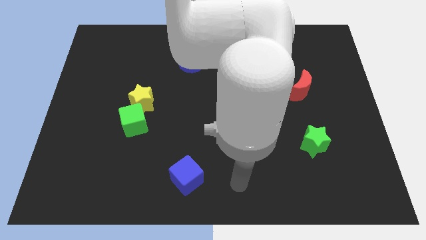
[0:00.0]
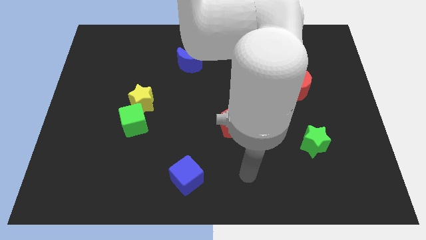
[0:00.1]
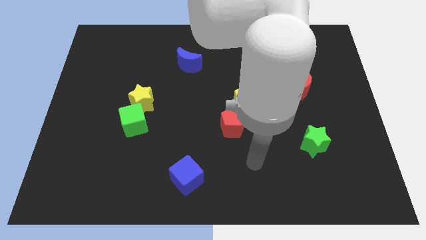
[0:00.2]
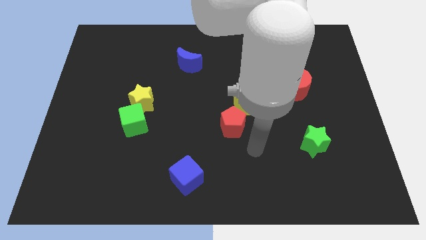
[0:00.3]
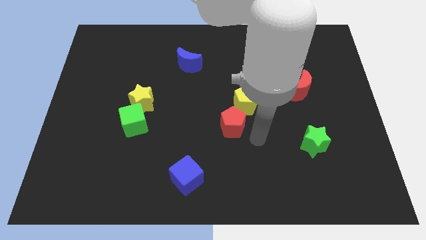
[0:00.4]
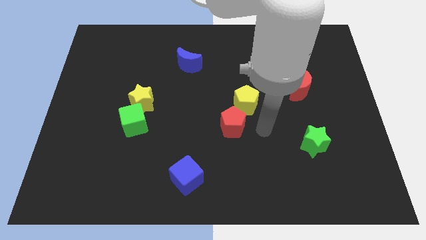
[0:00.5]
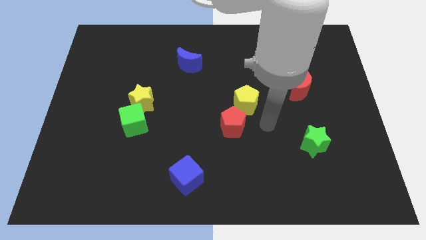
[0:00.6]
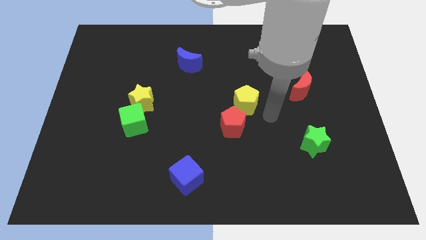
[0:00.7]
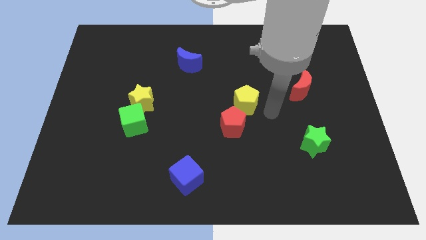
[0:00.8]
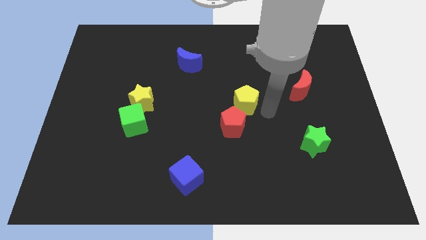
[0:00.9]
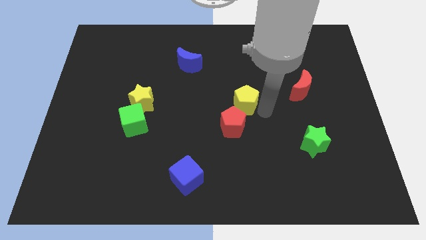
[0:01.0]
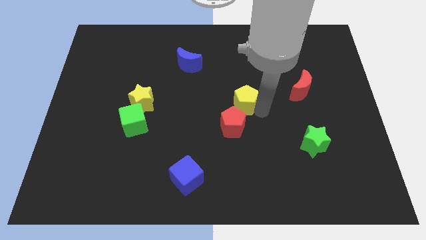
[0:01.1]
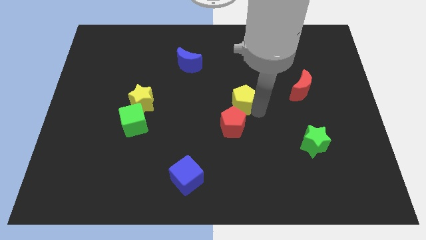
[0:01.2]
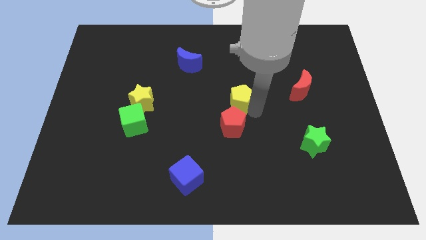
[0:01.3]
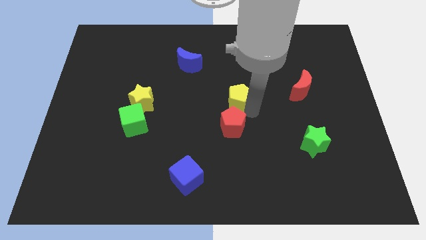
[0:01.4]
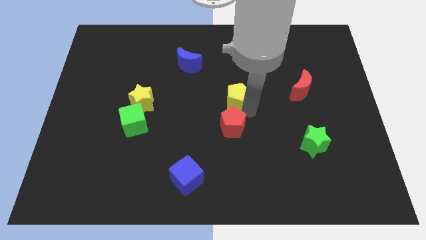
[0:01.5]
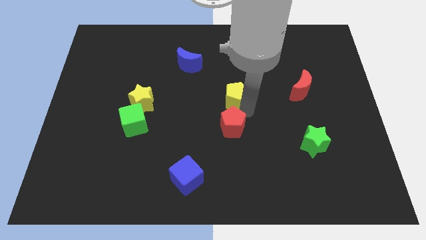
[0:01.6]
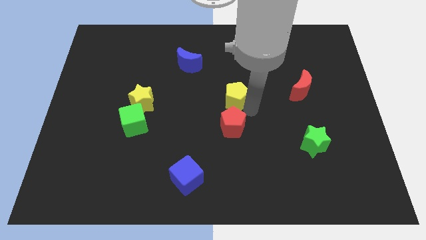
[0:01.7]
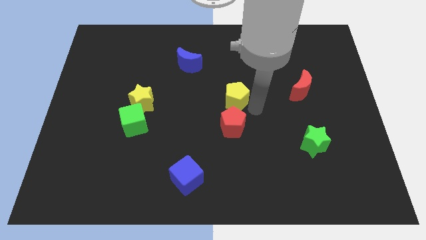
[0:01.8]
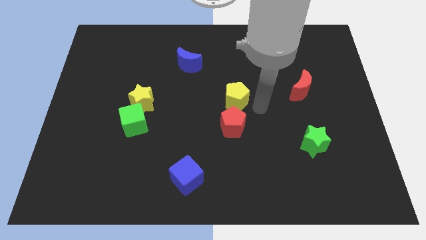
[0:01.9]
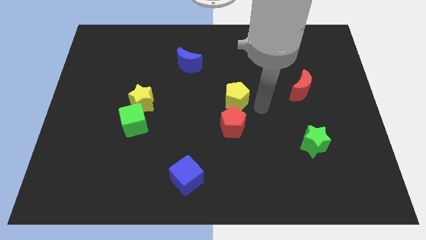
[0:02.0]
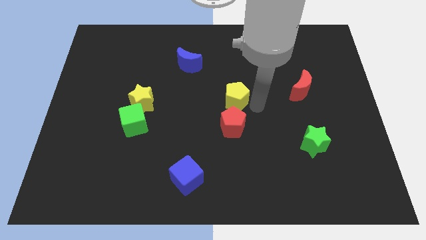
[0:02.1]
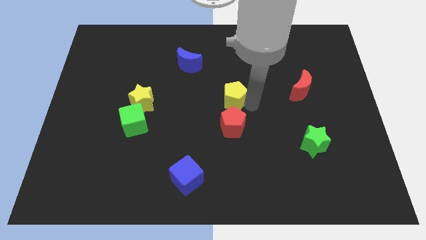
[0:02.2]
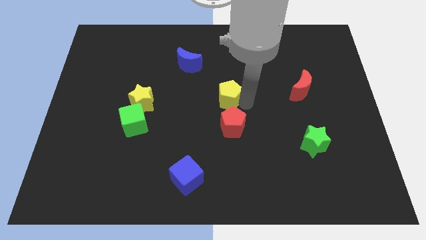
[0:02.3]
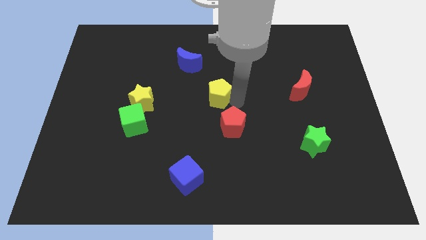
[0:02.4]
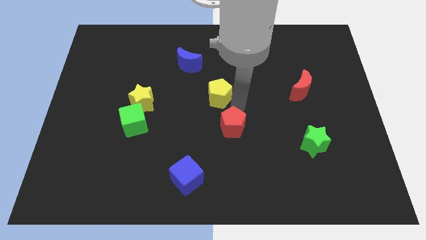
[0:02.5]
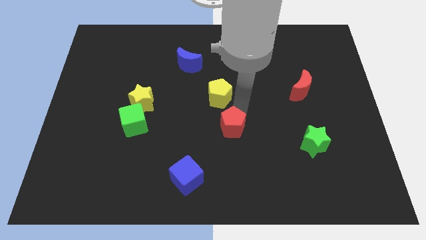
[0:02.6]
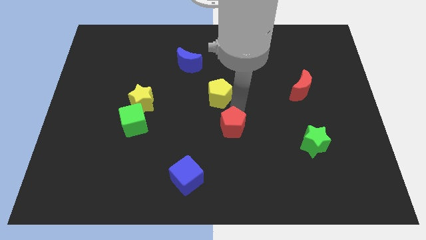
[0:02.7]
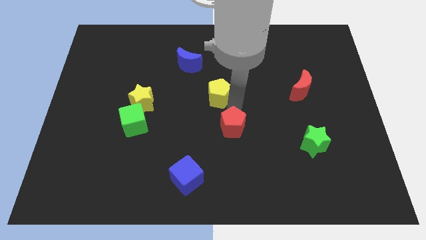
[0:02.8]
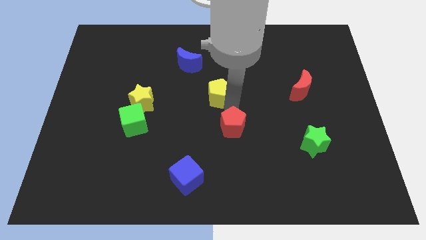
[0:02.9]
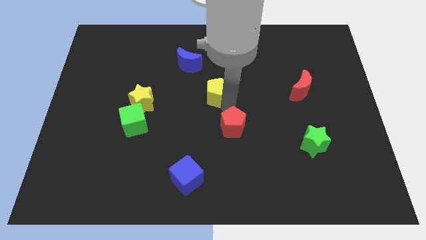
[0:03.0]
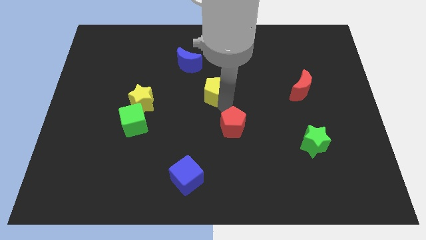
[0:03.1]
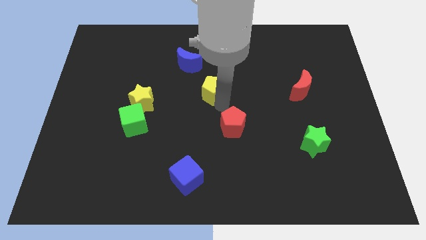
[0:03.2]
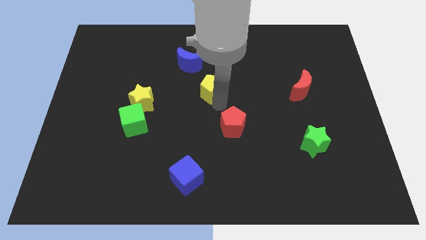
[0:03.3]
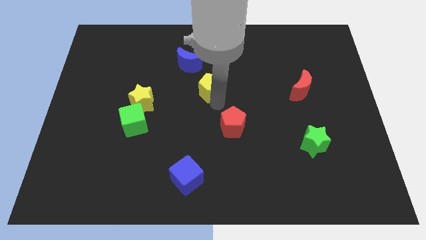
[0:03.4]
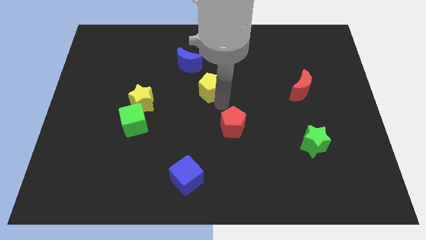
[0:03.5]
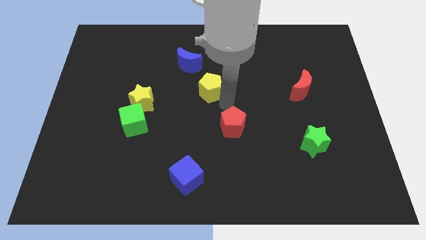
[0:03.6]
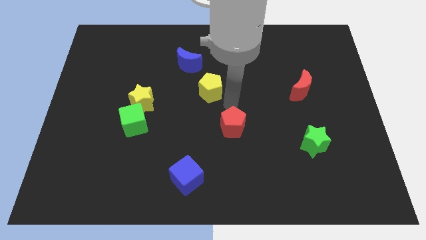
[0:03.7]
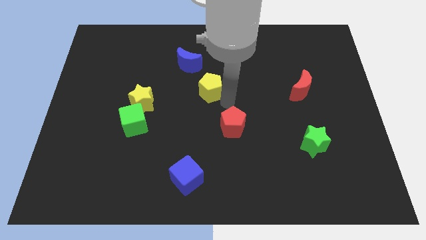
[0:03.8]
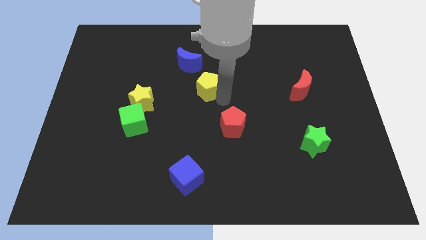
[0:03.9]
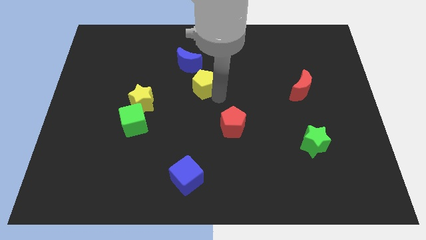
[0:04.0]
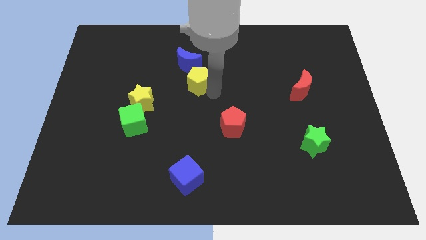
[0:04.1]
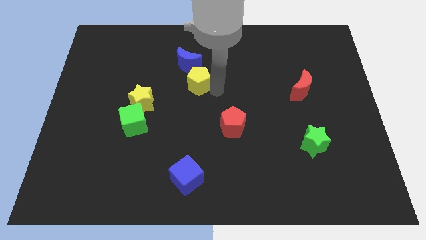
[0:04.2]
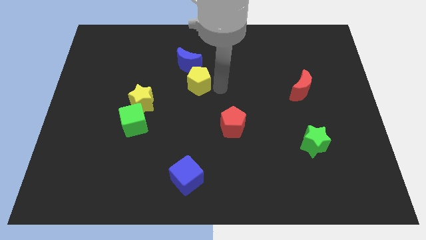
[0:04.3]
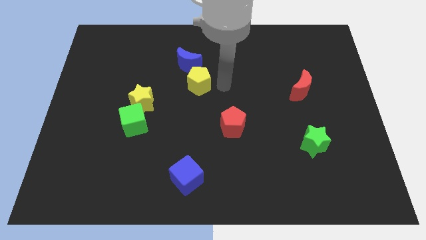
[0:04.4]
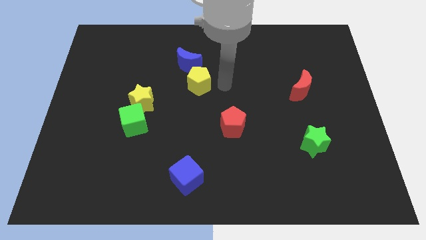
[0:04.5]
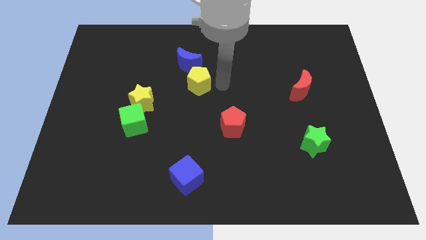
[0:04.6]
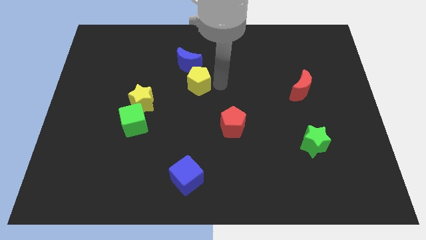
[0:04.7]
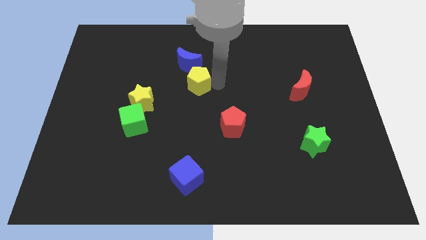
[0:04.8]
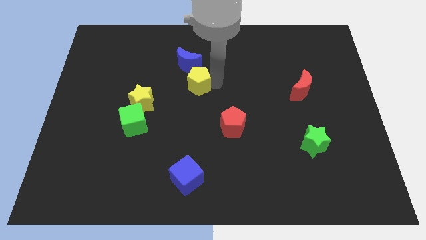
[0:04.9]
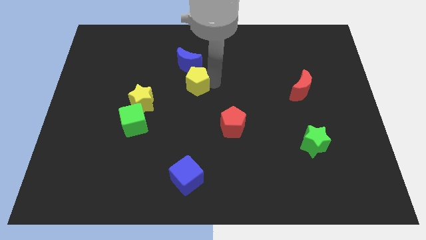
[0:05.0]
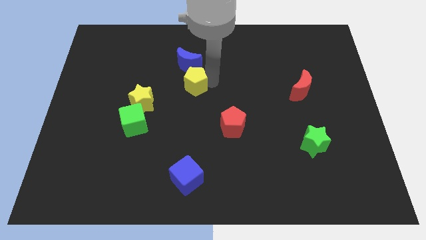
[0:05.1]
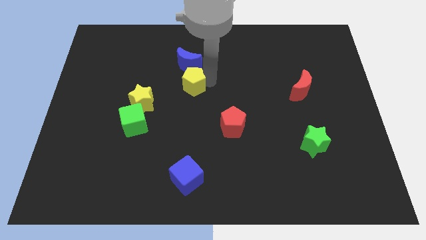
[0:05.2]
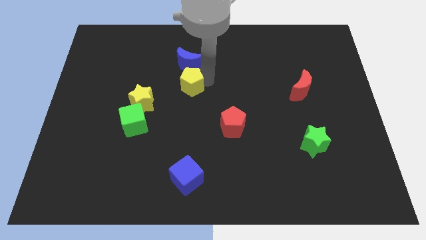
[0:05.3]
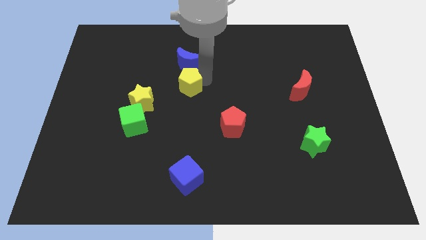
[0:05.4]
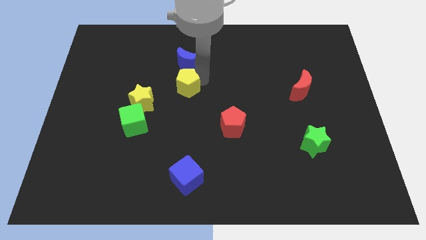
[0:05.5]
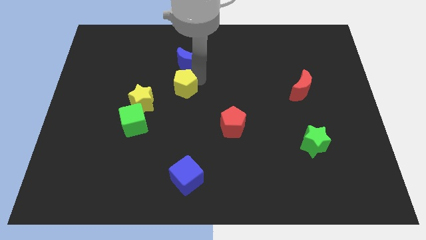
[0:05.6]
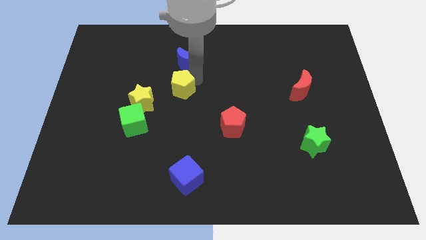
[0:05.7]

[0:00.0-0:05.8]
move the yellow pentagon to the bottom left side of the blue moon

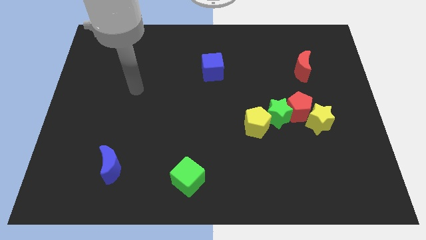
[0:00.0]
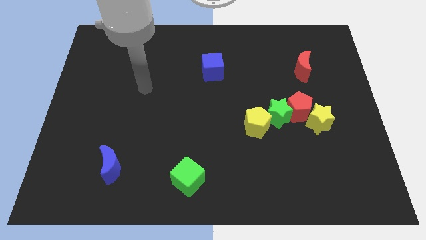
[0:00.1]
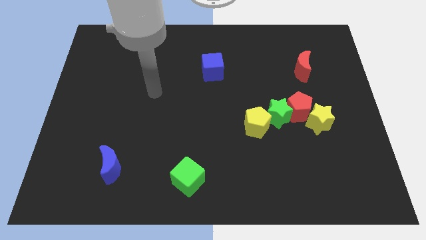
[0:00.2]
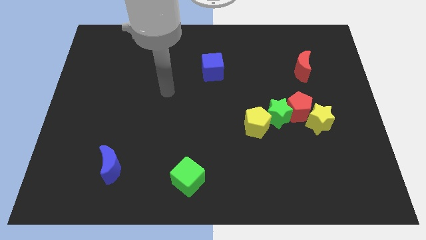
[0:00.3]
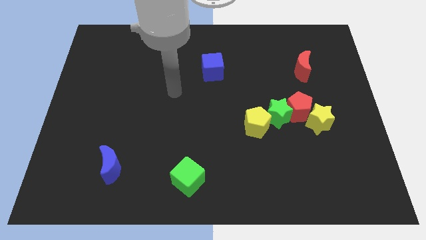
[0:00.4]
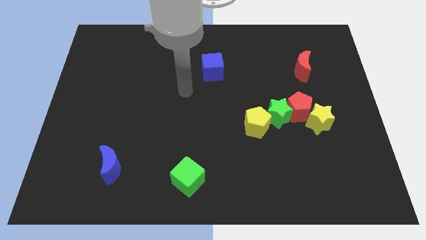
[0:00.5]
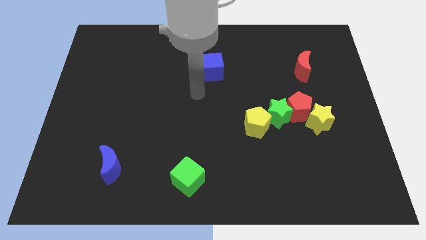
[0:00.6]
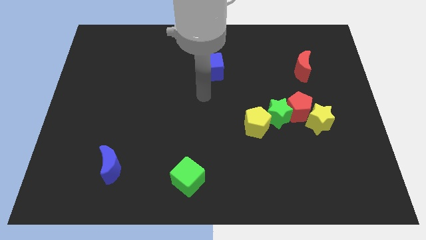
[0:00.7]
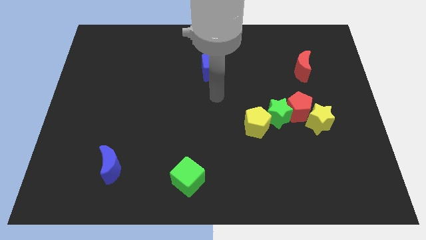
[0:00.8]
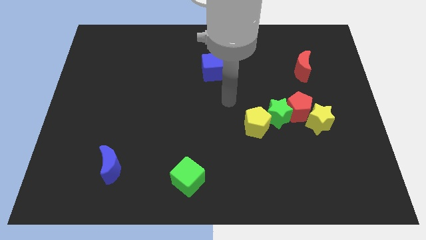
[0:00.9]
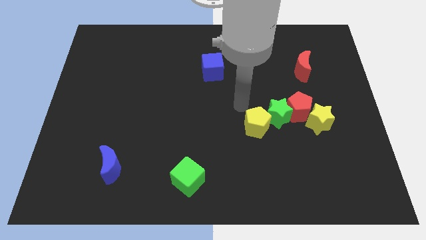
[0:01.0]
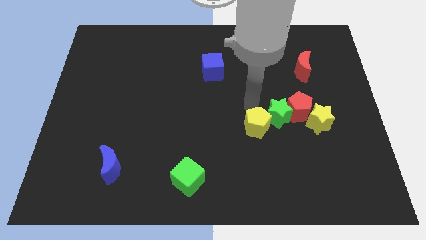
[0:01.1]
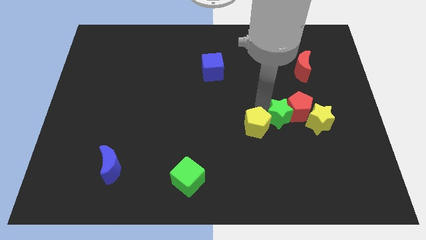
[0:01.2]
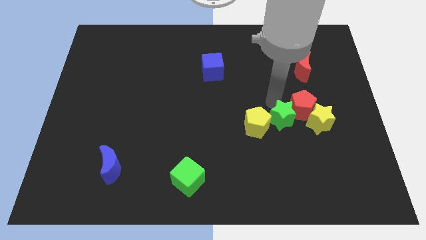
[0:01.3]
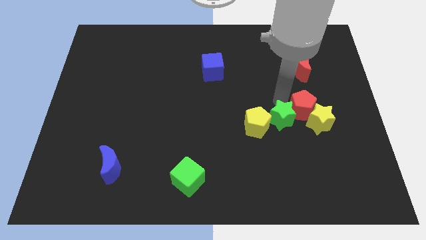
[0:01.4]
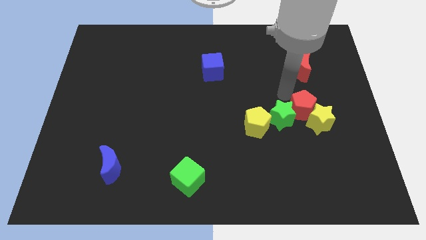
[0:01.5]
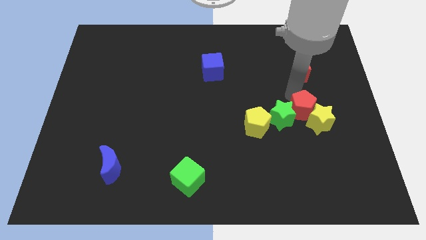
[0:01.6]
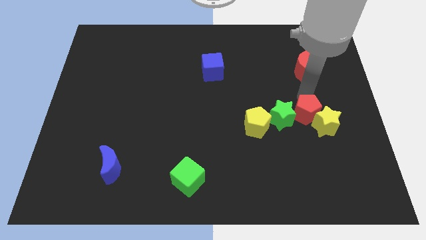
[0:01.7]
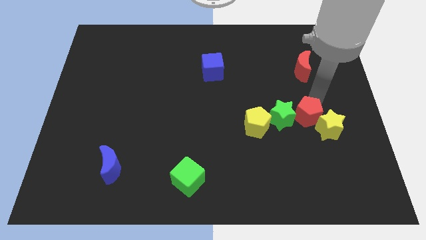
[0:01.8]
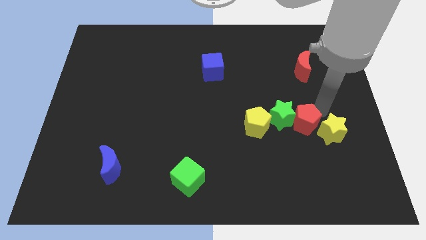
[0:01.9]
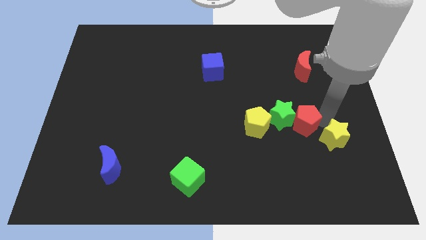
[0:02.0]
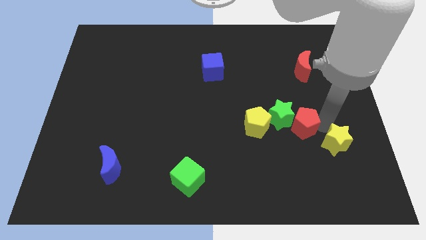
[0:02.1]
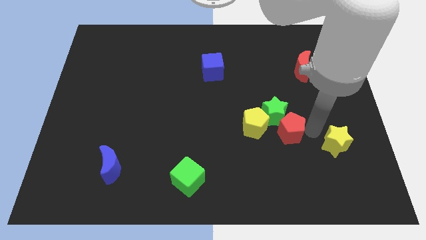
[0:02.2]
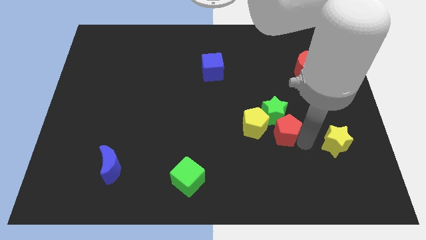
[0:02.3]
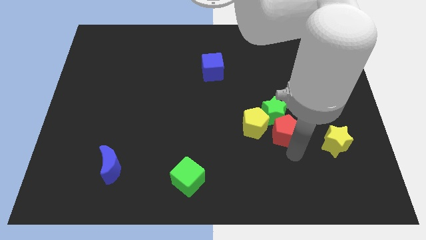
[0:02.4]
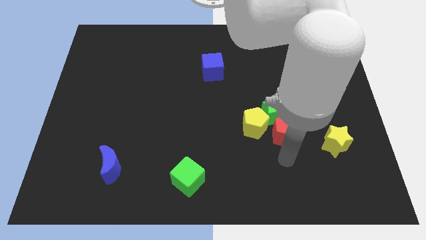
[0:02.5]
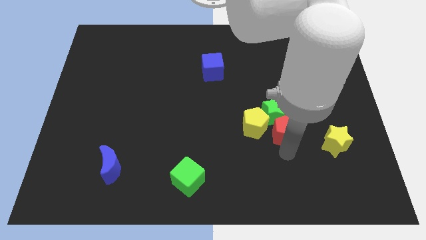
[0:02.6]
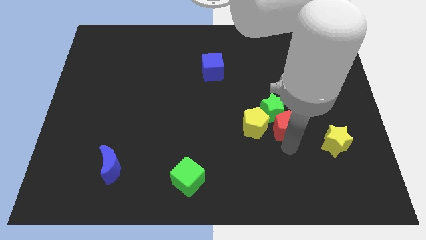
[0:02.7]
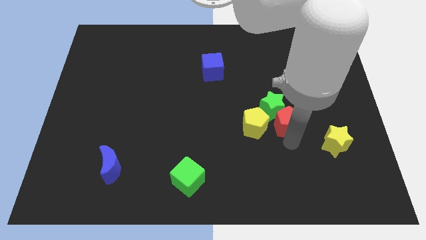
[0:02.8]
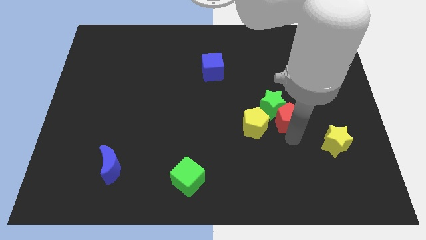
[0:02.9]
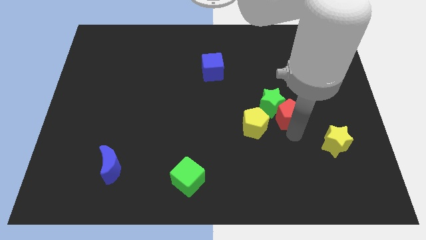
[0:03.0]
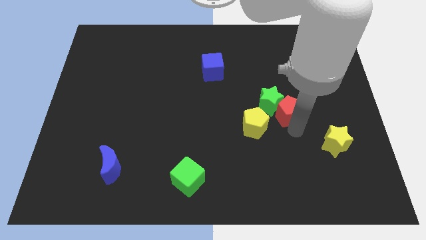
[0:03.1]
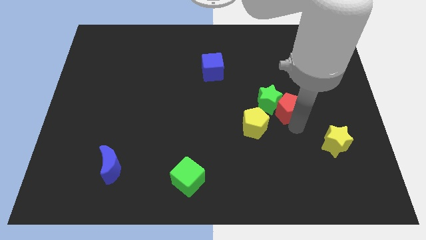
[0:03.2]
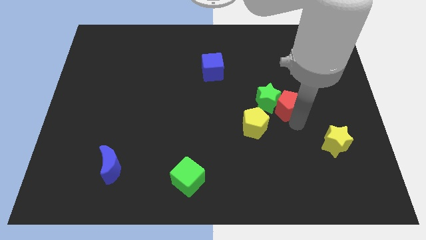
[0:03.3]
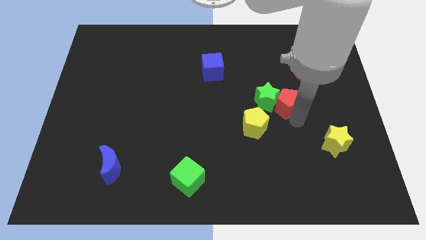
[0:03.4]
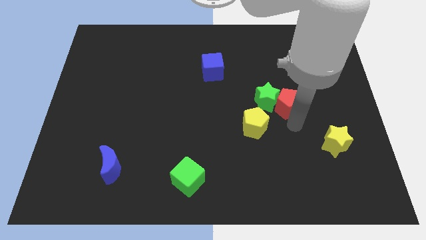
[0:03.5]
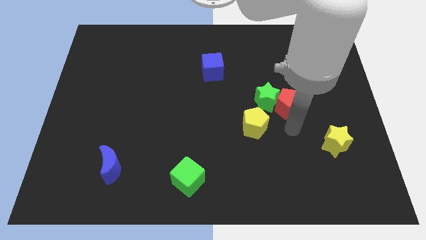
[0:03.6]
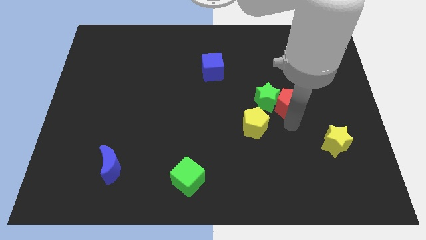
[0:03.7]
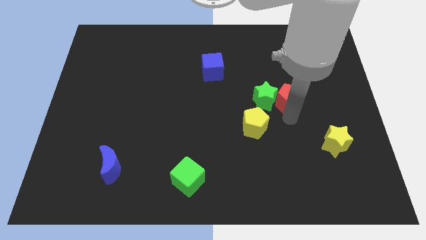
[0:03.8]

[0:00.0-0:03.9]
push the red pentagon diagonally down and to the left of the red moon
